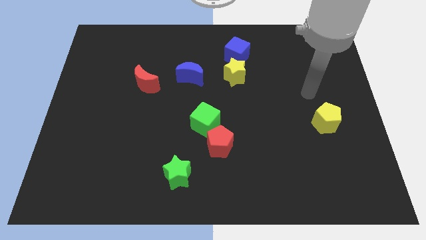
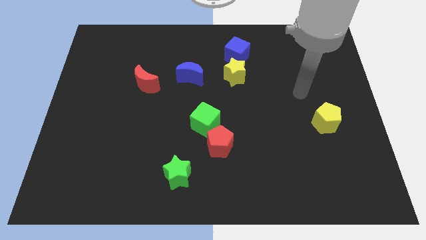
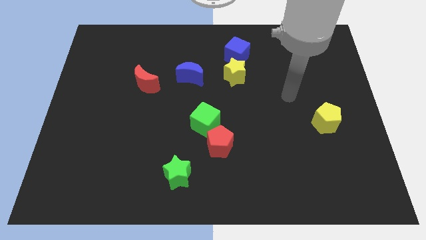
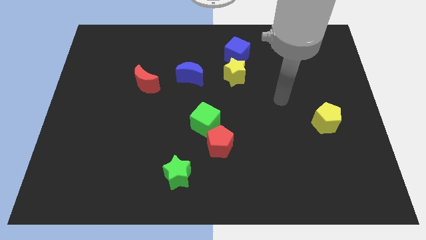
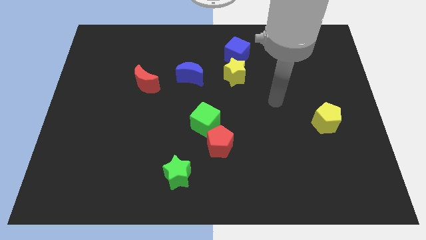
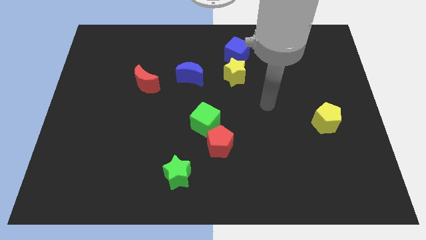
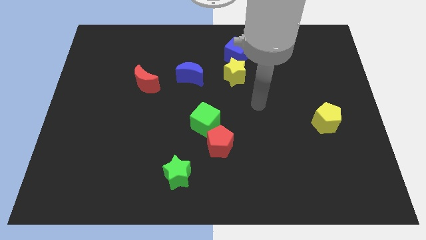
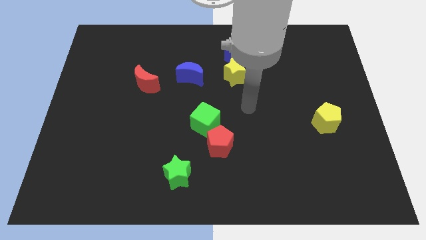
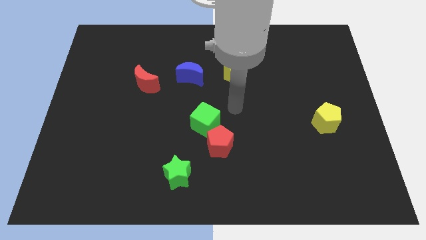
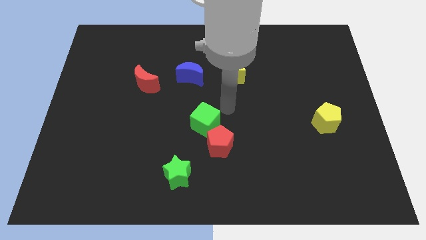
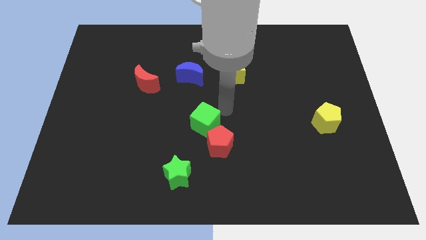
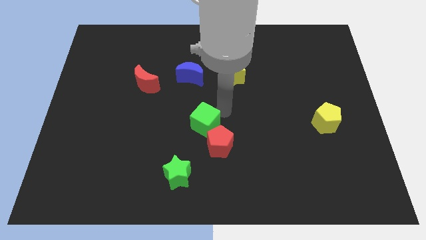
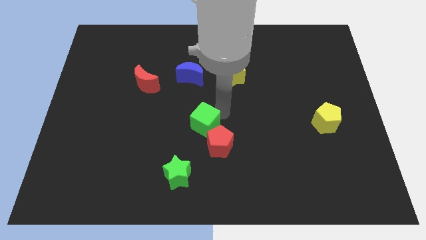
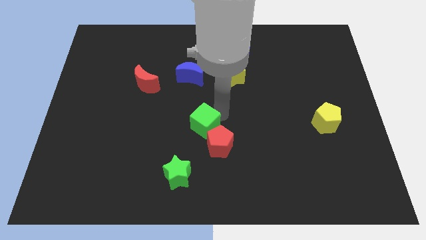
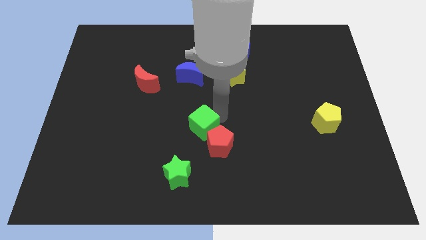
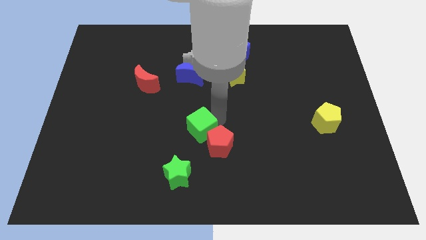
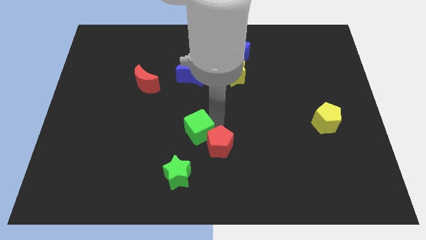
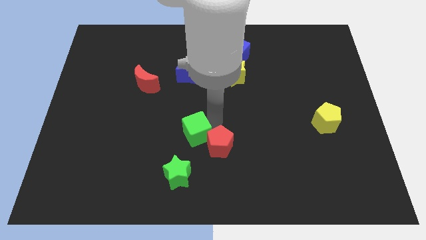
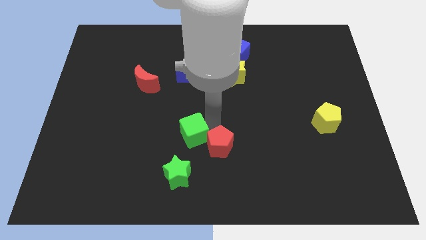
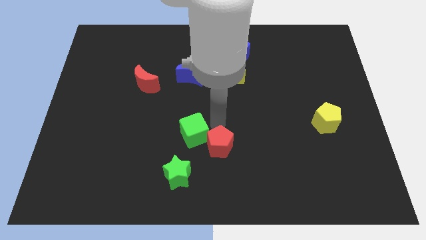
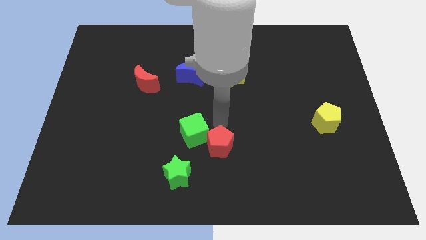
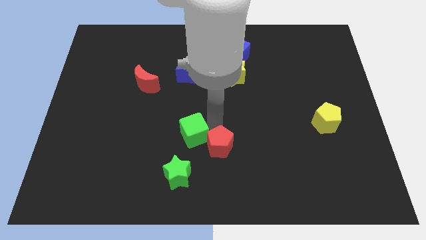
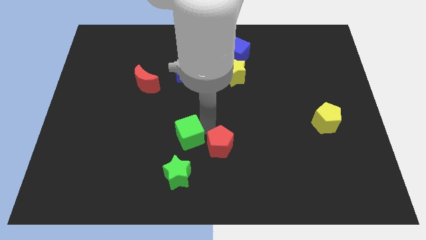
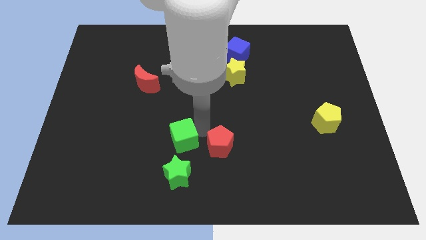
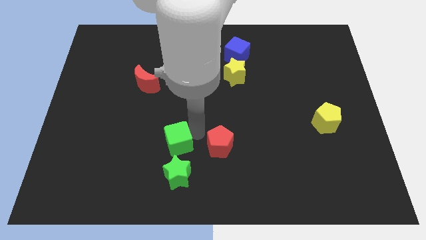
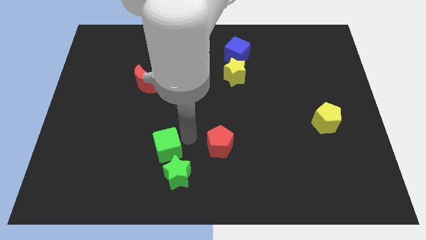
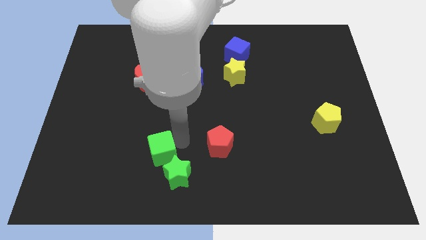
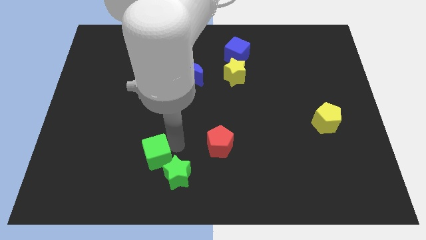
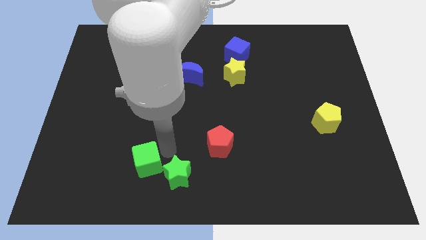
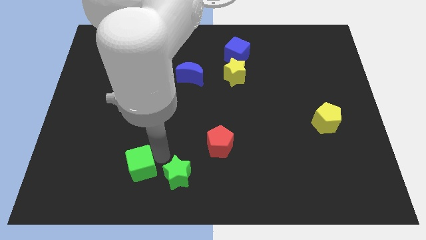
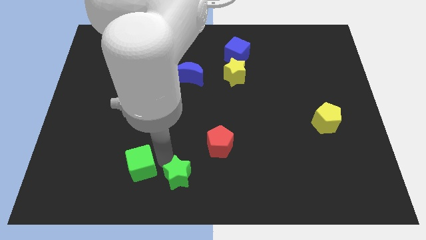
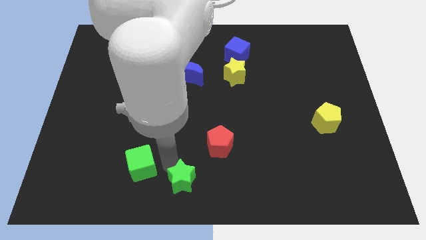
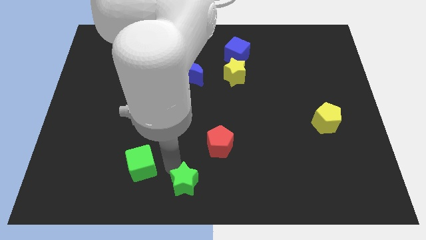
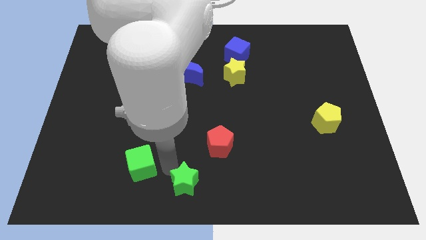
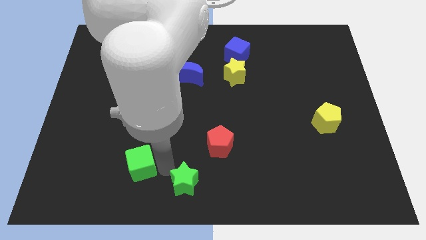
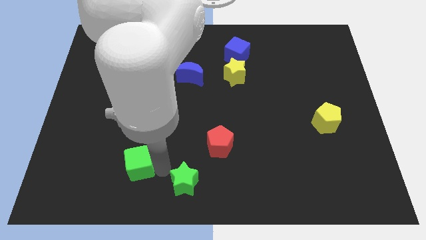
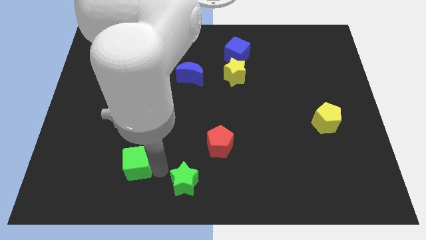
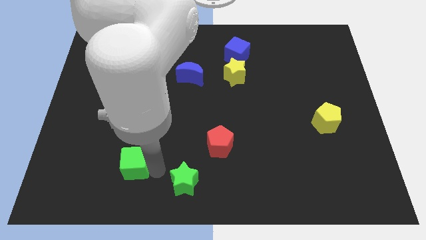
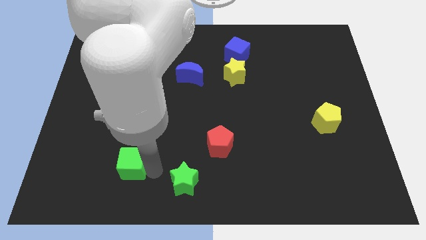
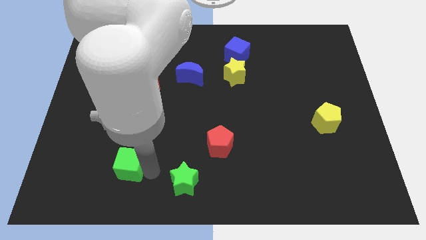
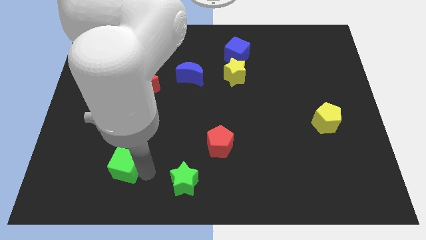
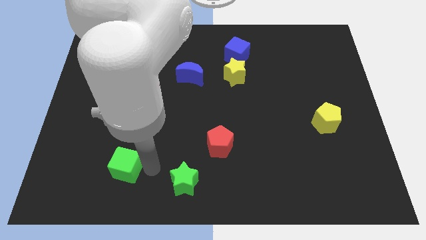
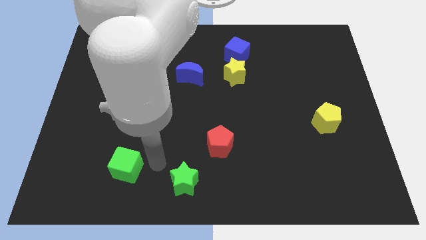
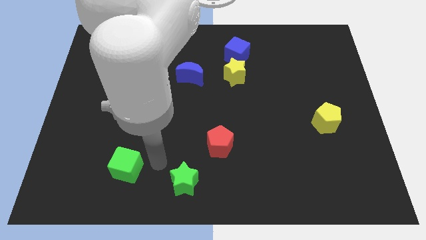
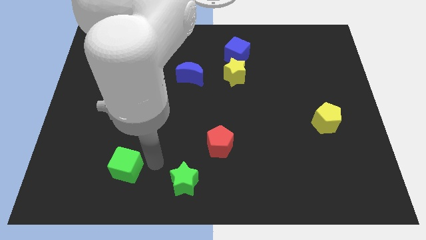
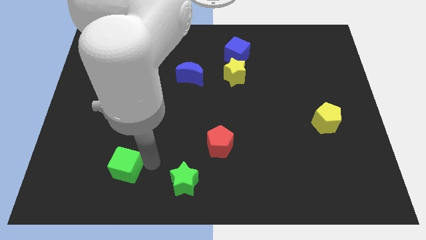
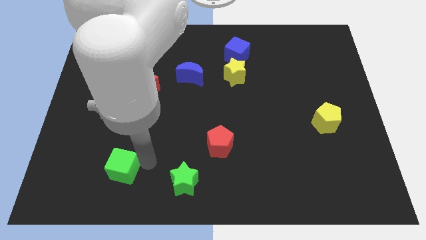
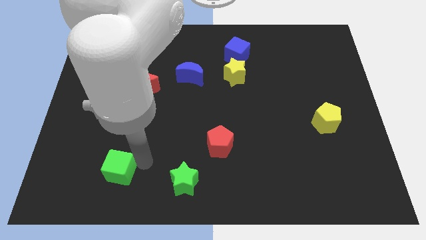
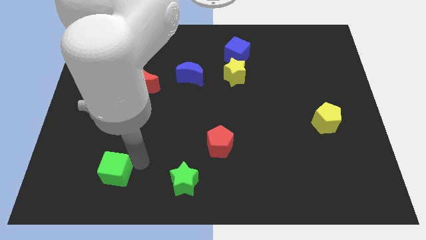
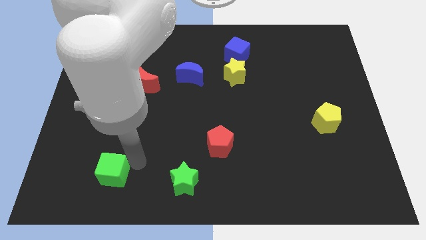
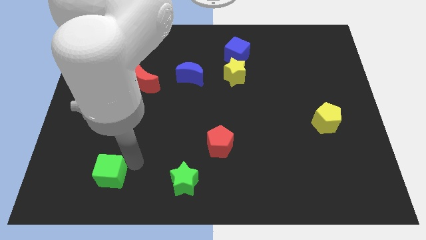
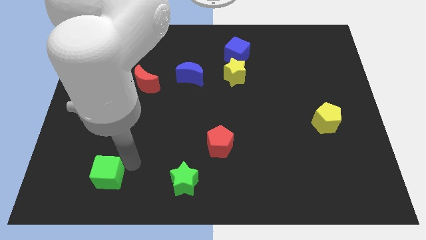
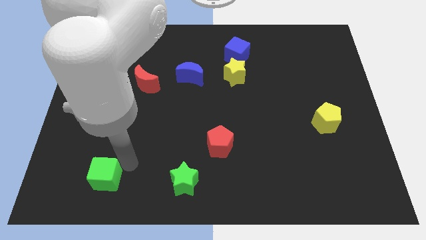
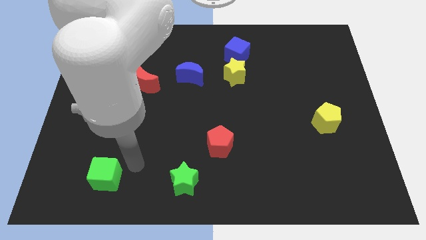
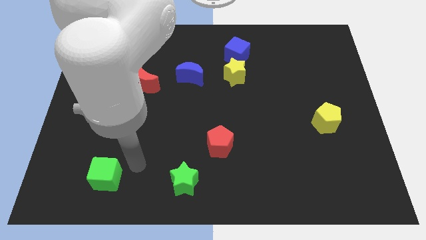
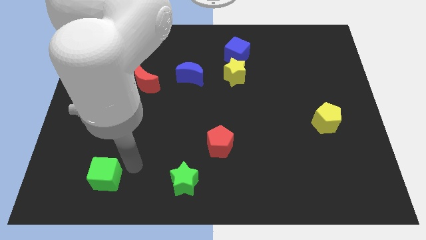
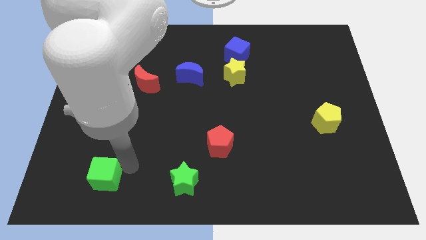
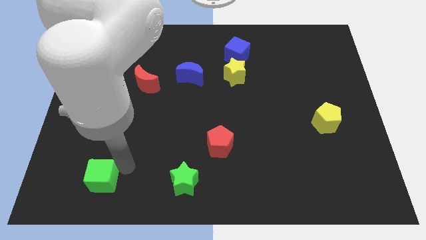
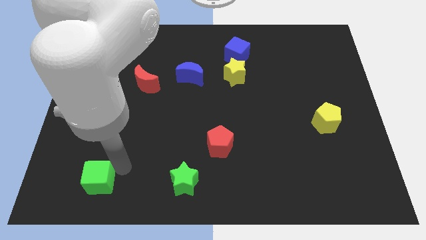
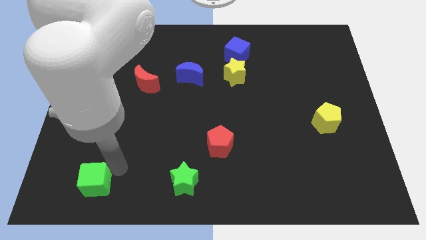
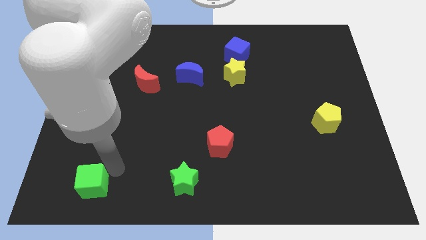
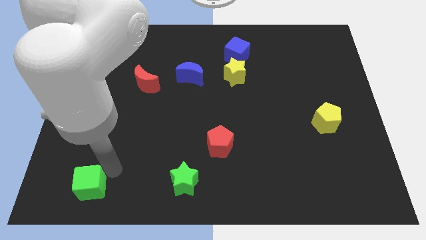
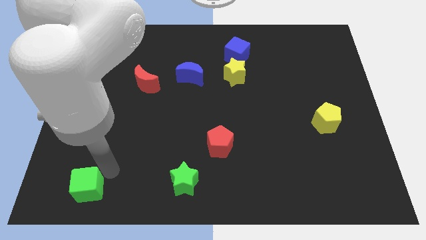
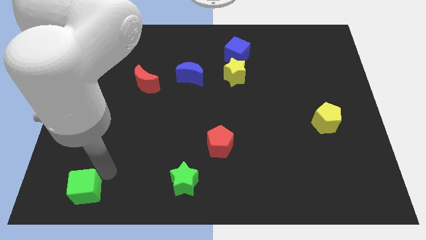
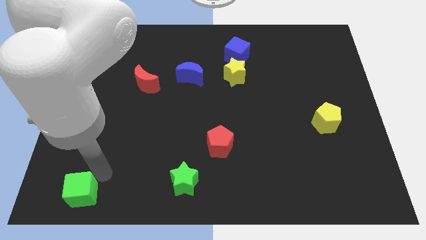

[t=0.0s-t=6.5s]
slide the green cube to the bottom left of the board
